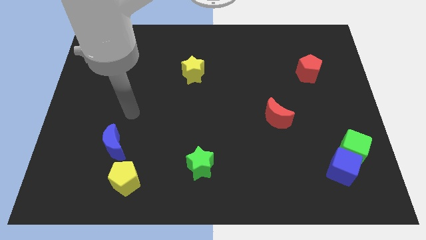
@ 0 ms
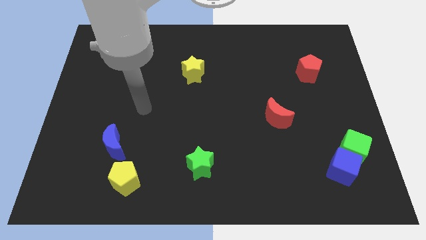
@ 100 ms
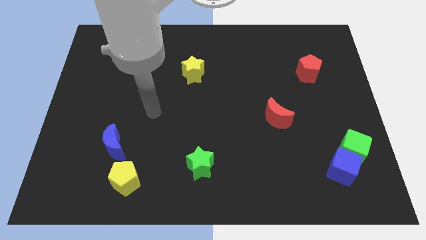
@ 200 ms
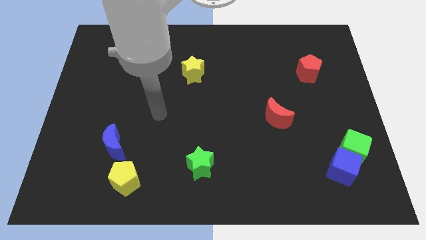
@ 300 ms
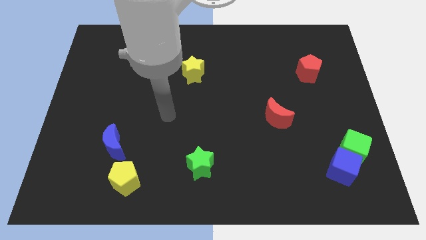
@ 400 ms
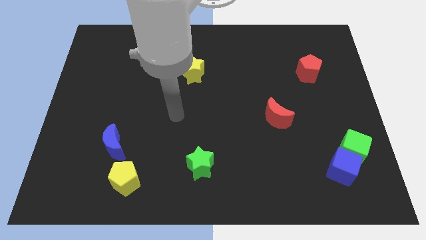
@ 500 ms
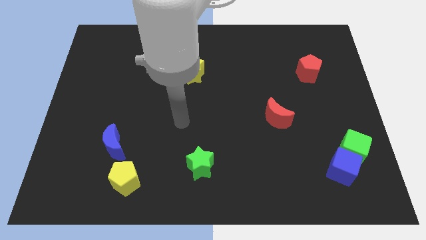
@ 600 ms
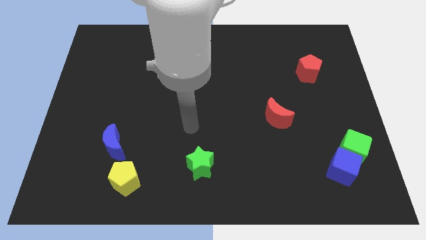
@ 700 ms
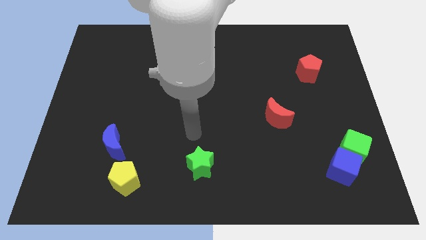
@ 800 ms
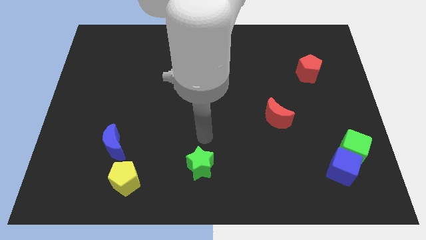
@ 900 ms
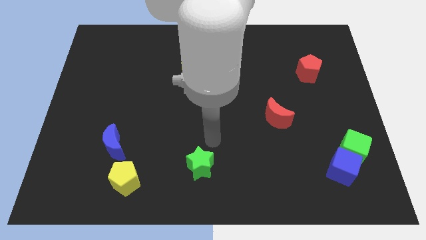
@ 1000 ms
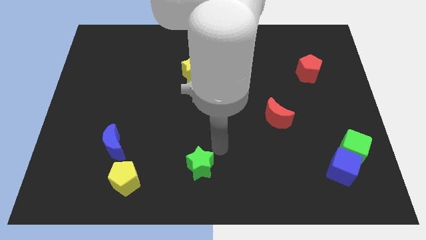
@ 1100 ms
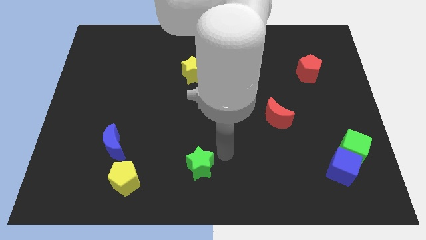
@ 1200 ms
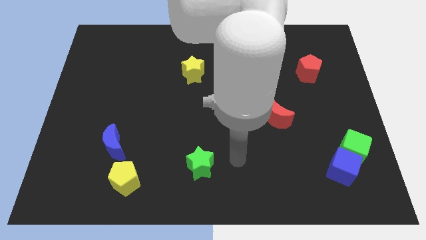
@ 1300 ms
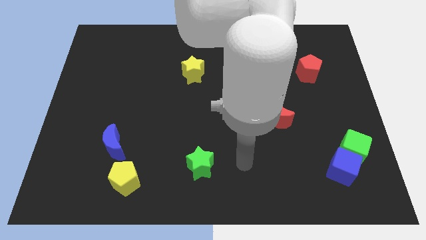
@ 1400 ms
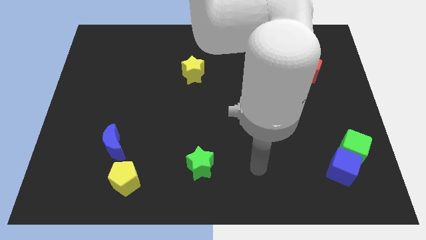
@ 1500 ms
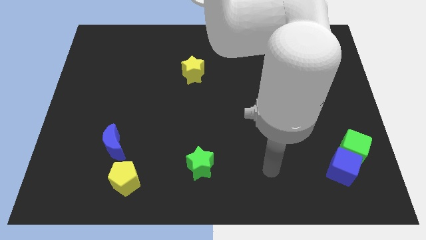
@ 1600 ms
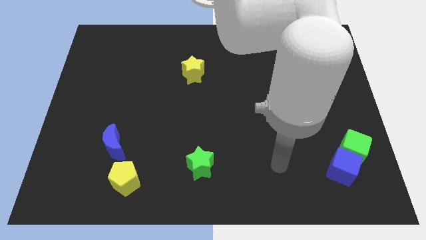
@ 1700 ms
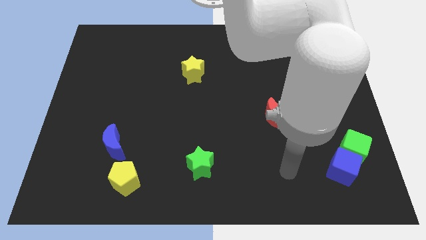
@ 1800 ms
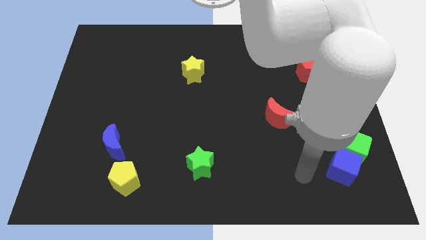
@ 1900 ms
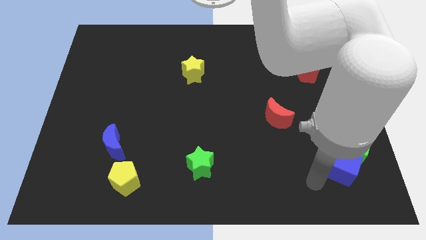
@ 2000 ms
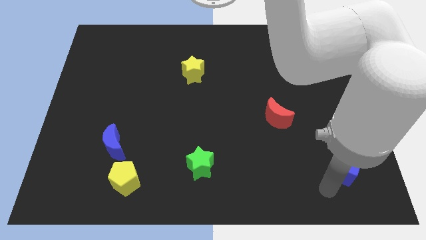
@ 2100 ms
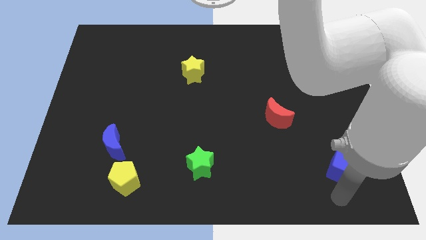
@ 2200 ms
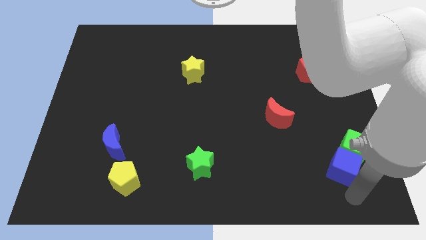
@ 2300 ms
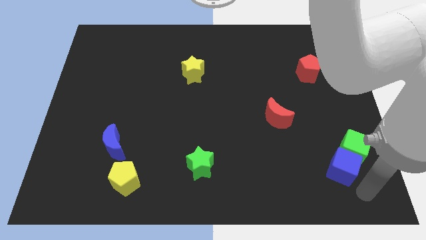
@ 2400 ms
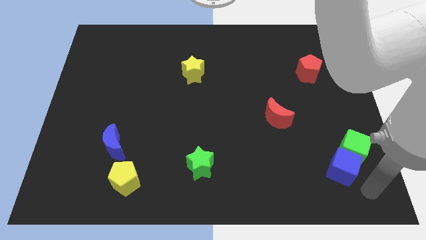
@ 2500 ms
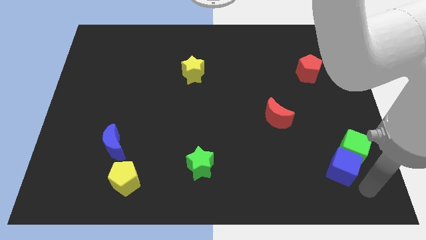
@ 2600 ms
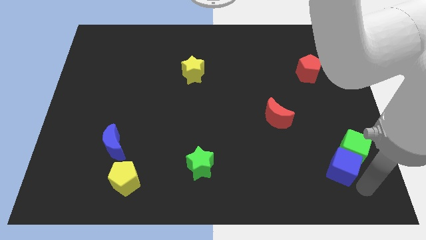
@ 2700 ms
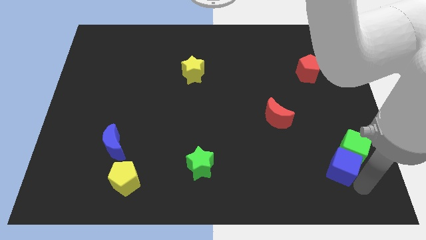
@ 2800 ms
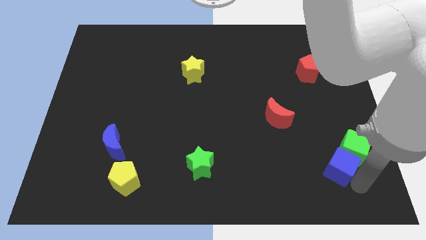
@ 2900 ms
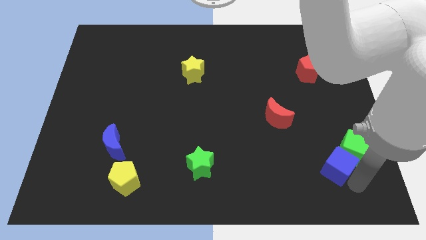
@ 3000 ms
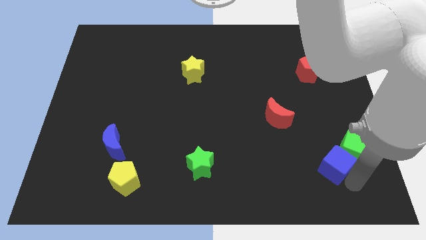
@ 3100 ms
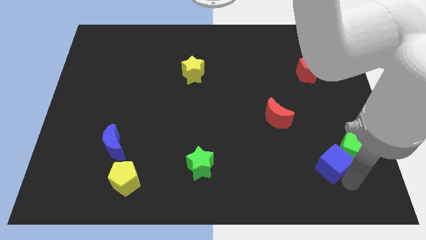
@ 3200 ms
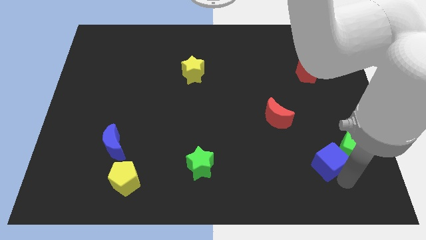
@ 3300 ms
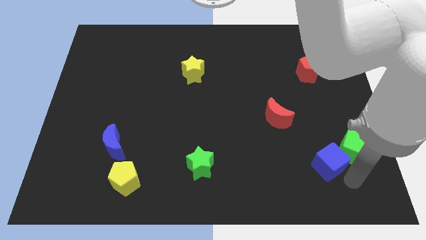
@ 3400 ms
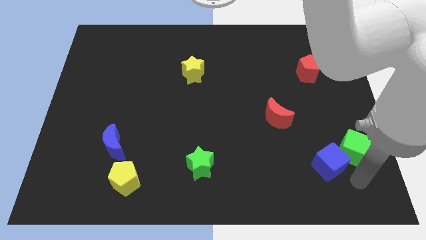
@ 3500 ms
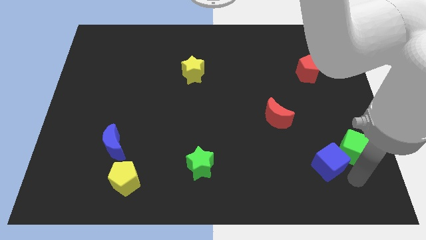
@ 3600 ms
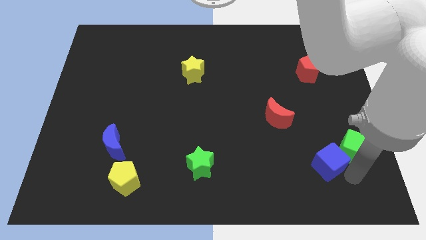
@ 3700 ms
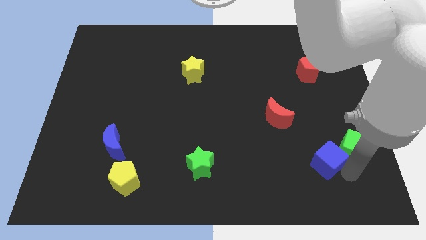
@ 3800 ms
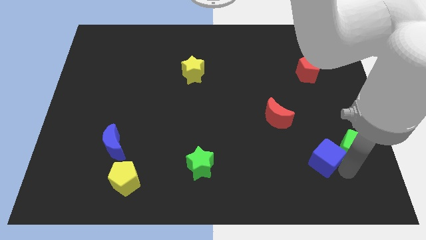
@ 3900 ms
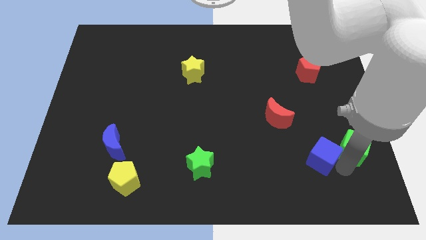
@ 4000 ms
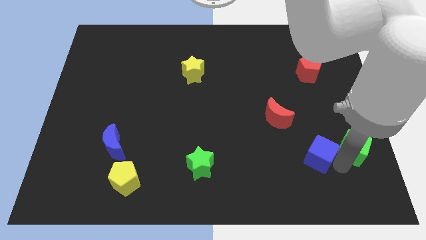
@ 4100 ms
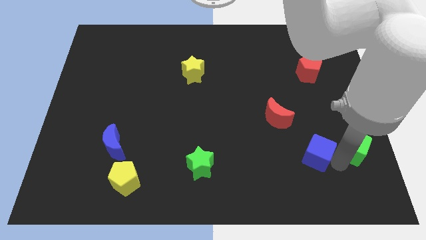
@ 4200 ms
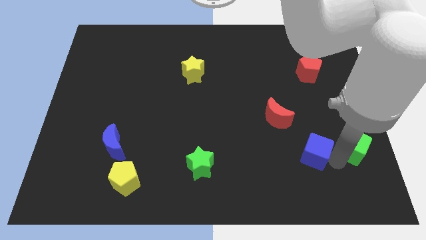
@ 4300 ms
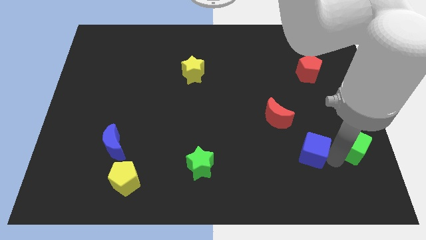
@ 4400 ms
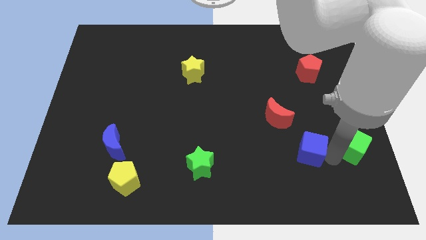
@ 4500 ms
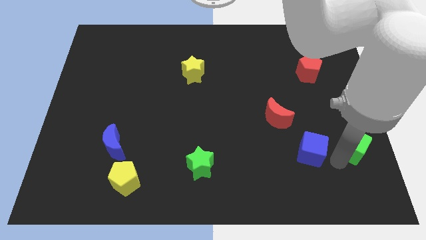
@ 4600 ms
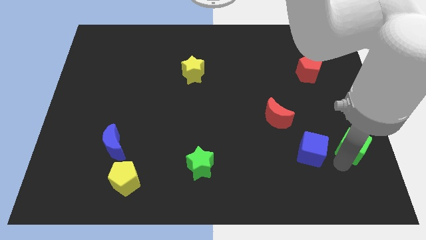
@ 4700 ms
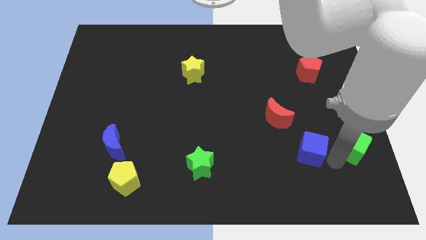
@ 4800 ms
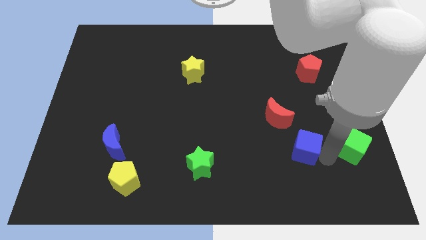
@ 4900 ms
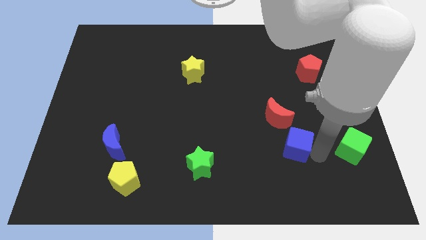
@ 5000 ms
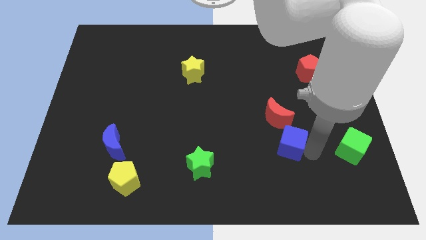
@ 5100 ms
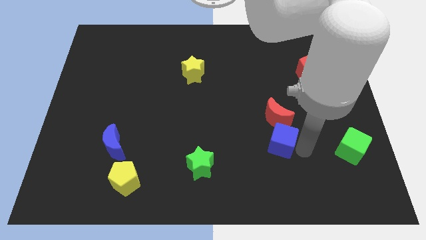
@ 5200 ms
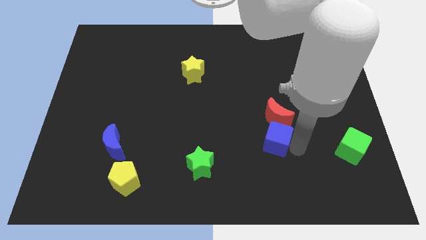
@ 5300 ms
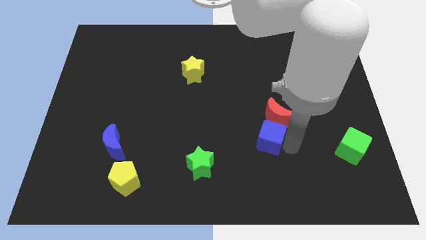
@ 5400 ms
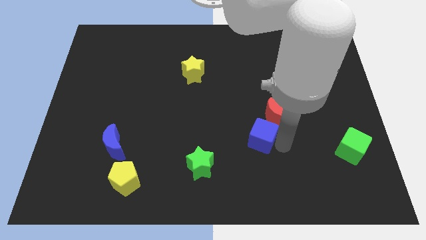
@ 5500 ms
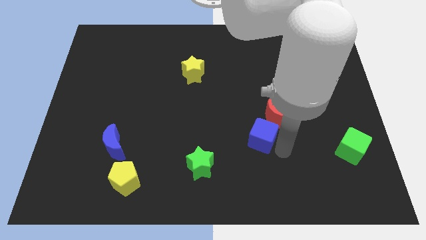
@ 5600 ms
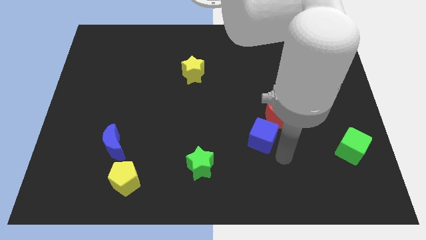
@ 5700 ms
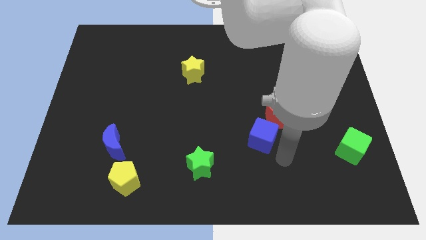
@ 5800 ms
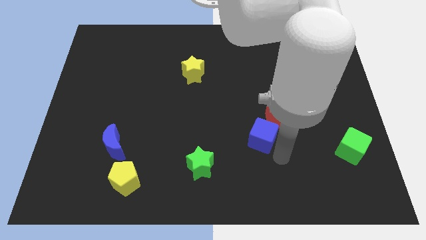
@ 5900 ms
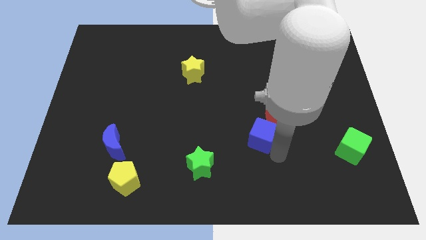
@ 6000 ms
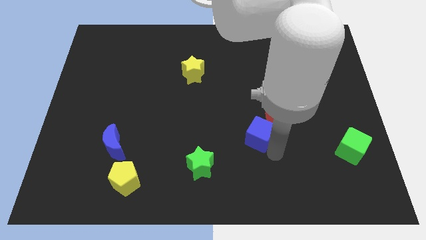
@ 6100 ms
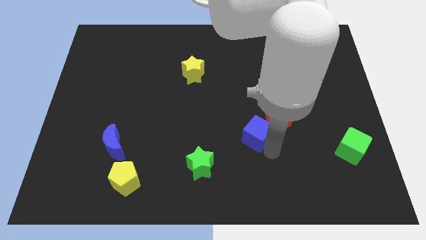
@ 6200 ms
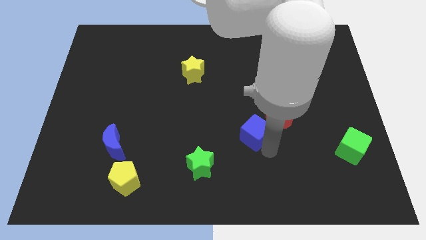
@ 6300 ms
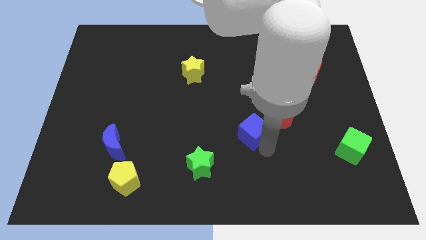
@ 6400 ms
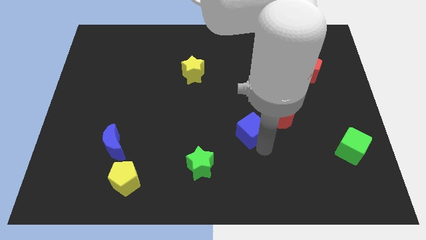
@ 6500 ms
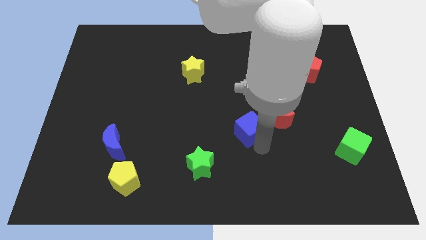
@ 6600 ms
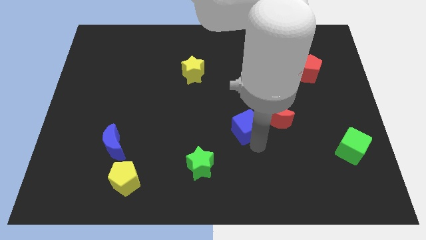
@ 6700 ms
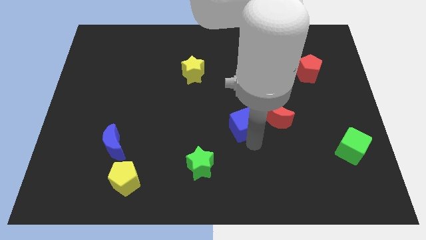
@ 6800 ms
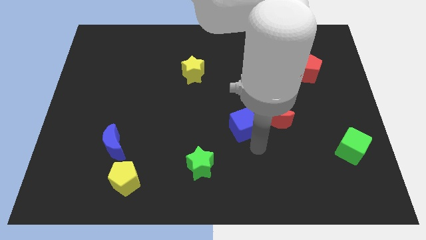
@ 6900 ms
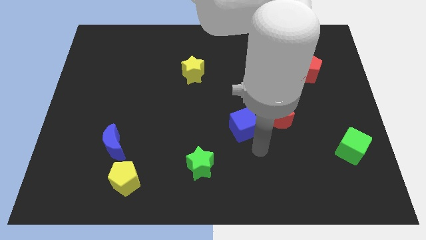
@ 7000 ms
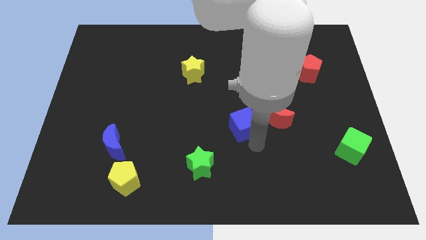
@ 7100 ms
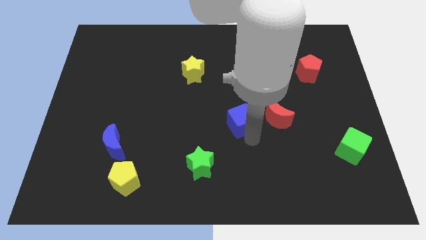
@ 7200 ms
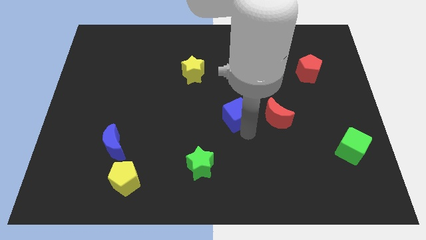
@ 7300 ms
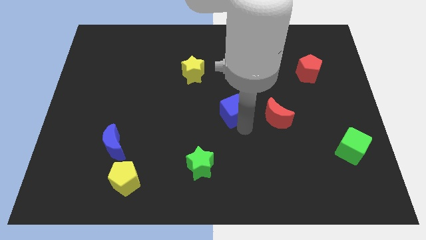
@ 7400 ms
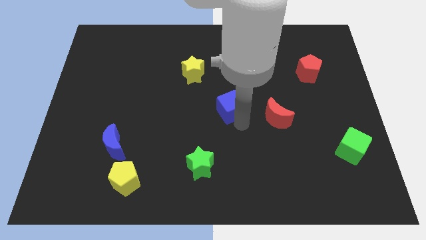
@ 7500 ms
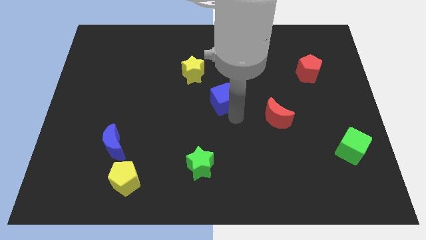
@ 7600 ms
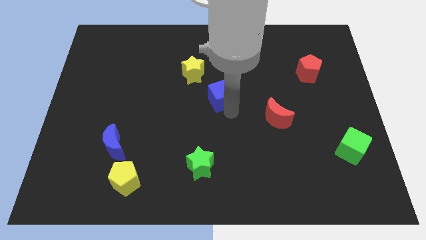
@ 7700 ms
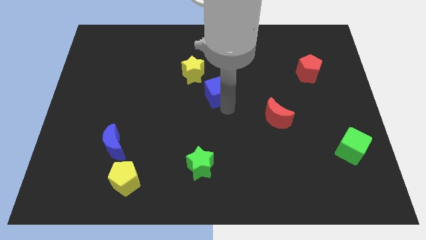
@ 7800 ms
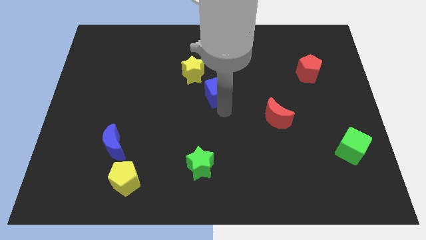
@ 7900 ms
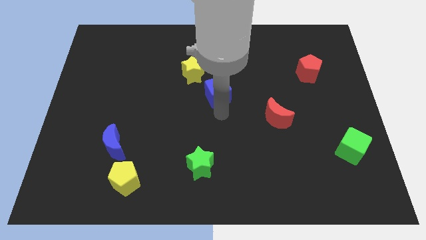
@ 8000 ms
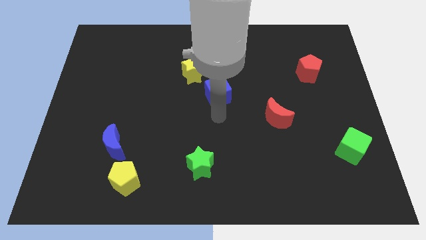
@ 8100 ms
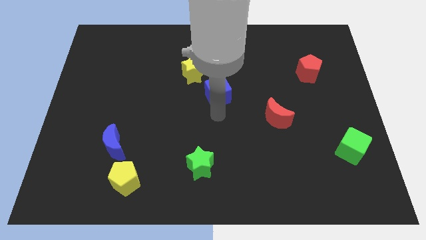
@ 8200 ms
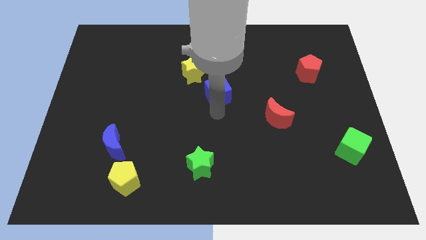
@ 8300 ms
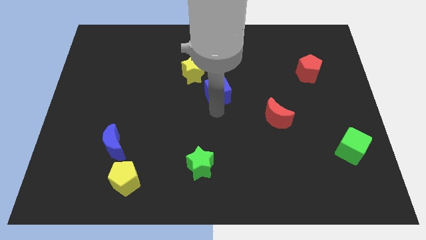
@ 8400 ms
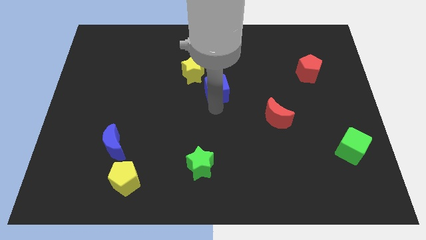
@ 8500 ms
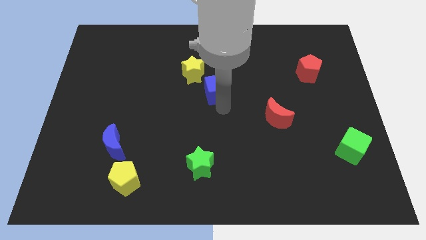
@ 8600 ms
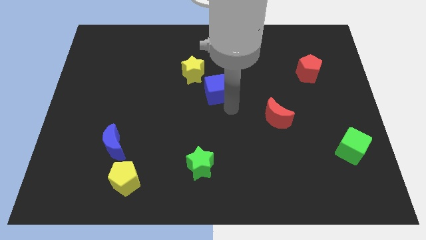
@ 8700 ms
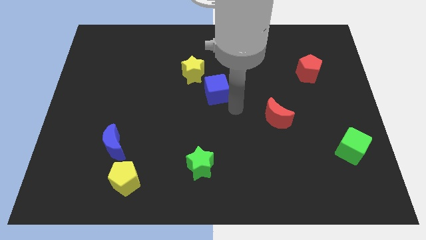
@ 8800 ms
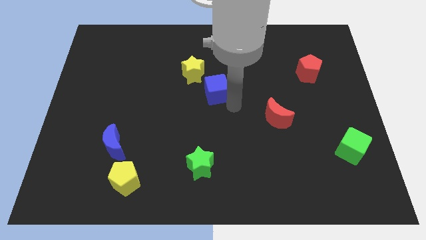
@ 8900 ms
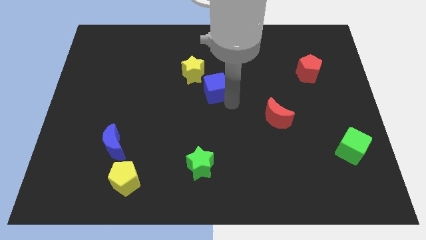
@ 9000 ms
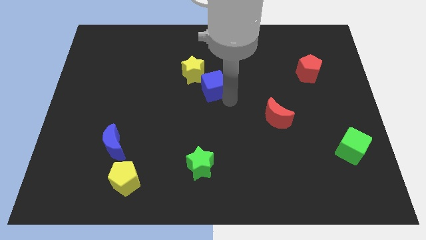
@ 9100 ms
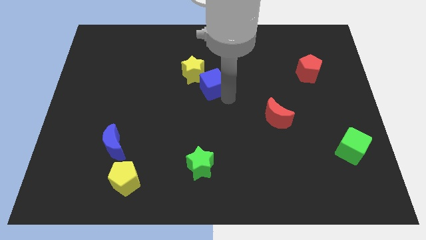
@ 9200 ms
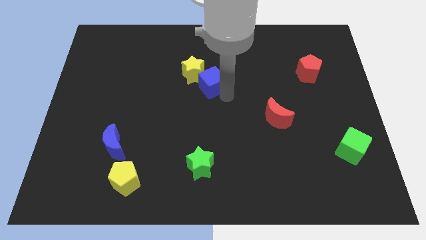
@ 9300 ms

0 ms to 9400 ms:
push the blue cube close to the yellow star
